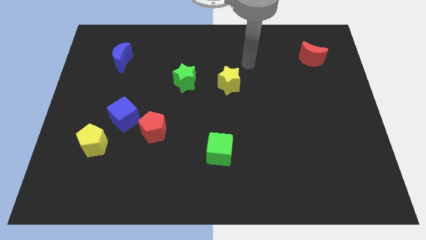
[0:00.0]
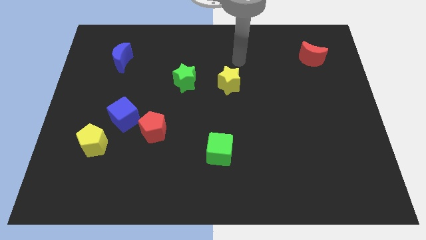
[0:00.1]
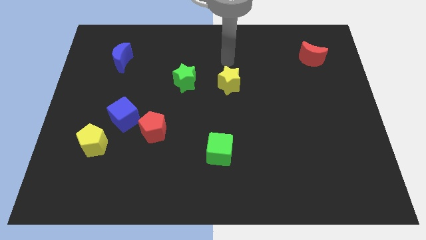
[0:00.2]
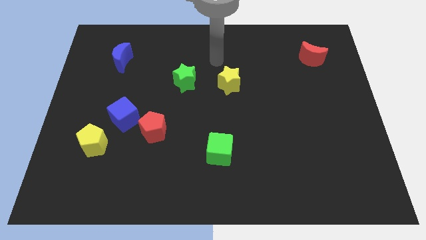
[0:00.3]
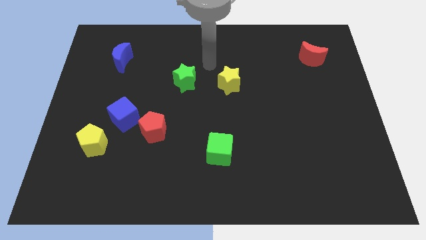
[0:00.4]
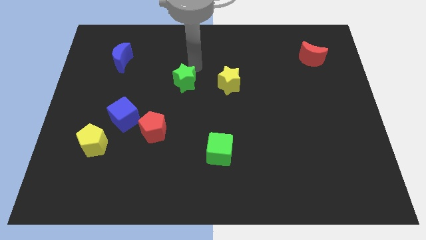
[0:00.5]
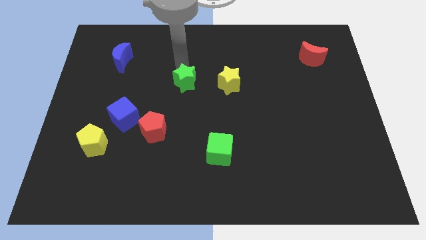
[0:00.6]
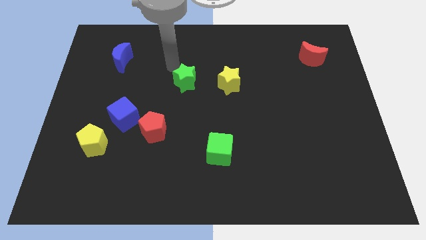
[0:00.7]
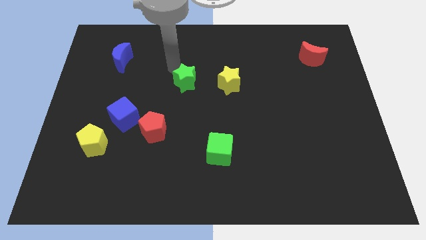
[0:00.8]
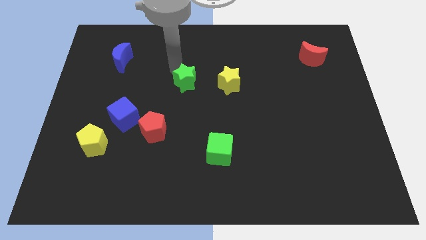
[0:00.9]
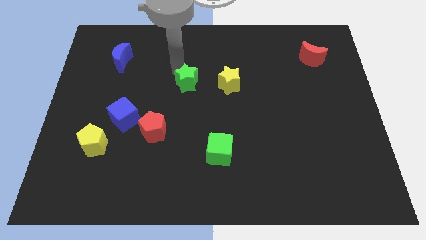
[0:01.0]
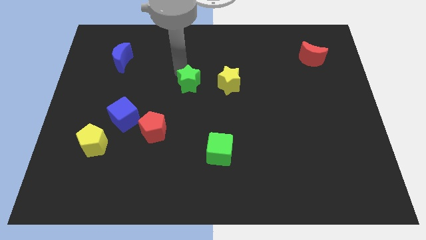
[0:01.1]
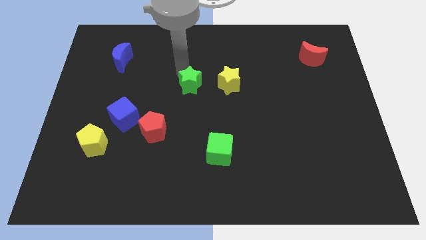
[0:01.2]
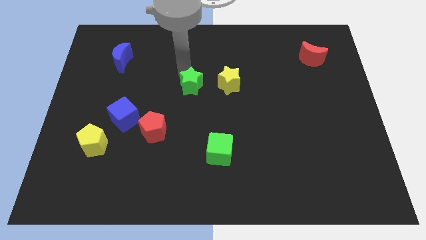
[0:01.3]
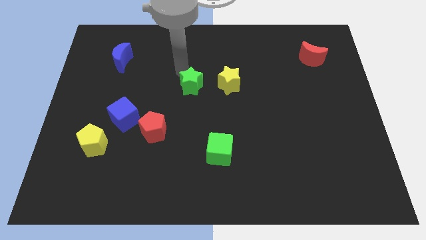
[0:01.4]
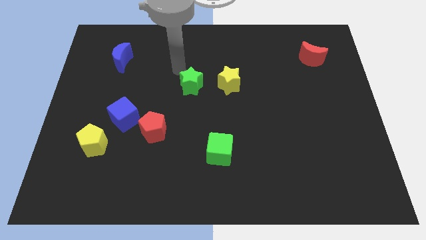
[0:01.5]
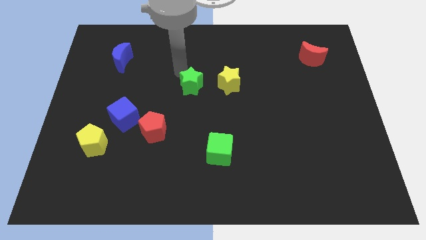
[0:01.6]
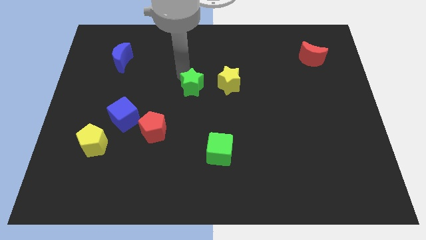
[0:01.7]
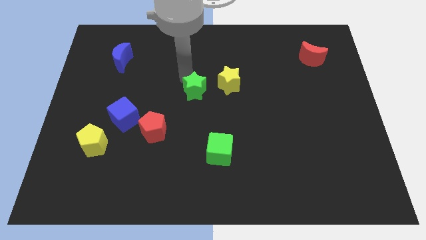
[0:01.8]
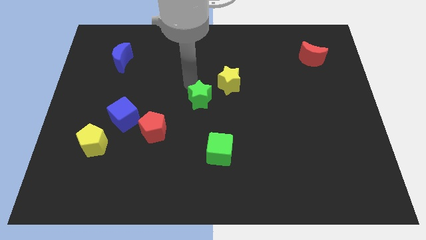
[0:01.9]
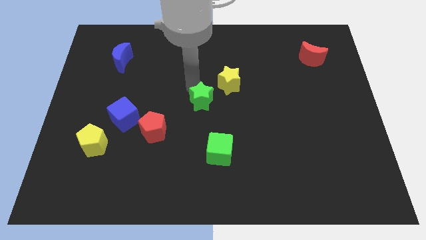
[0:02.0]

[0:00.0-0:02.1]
slightly push the green star downwards and then to the right

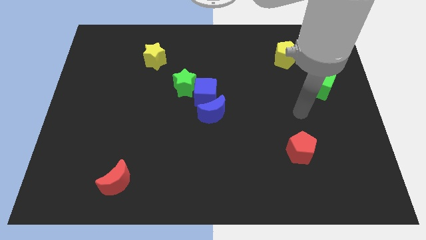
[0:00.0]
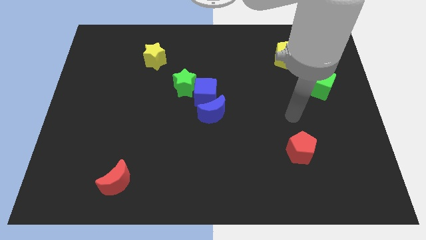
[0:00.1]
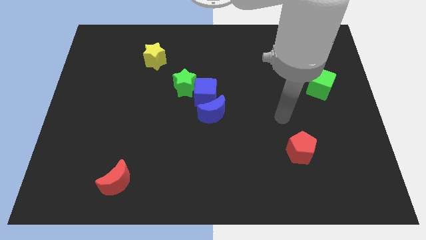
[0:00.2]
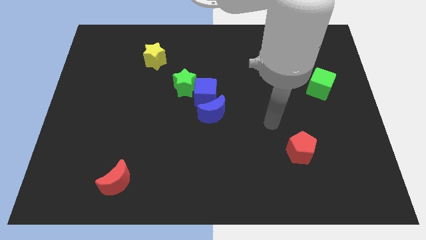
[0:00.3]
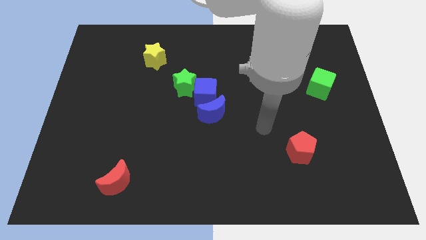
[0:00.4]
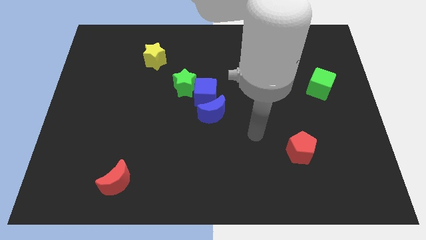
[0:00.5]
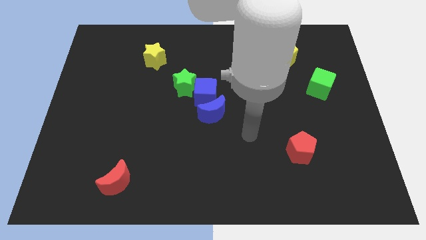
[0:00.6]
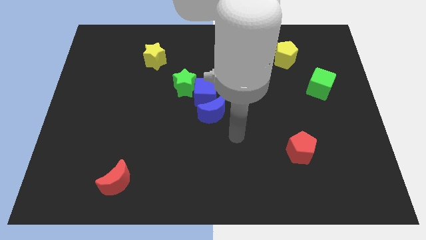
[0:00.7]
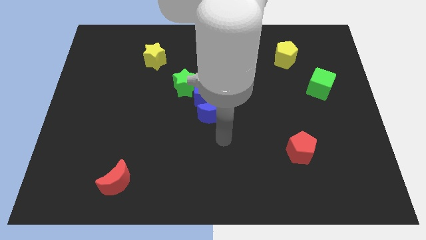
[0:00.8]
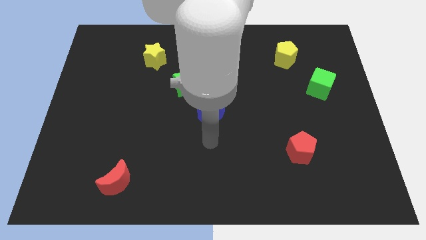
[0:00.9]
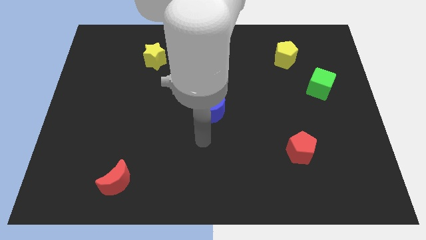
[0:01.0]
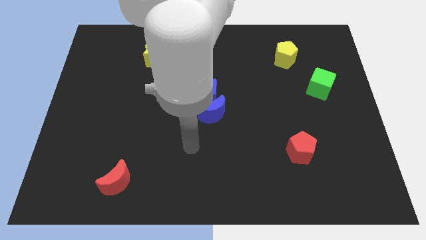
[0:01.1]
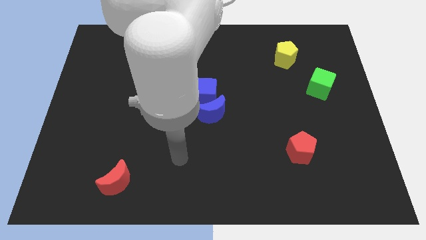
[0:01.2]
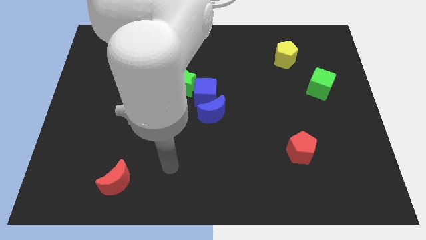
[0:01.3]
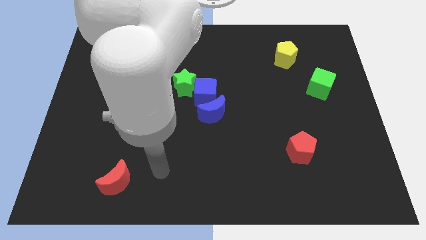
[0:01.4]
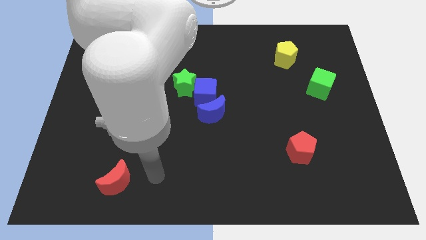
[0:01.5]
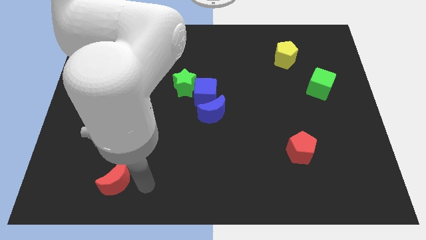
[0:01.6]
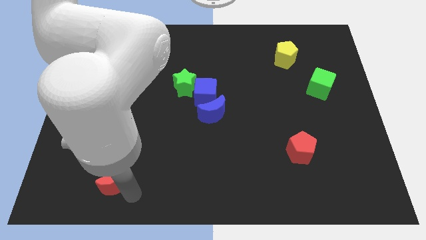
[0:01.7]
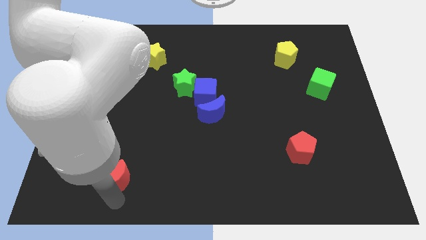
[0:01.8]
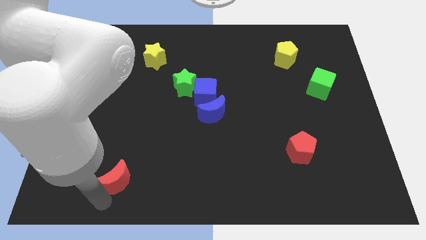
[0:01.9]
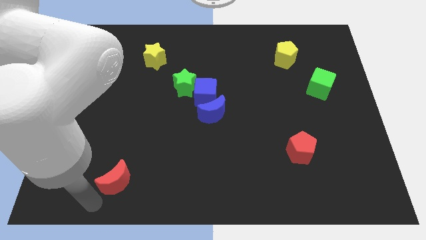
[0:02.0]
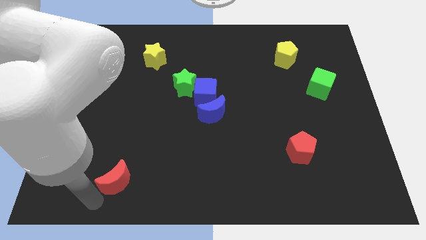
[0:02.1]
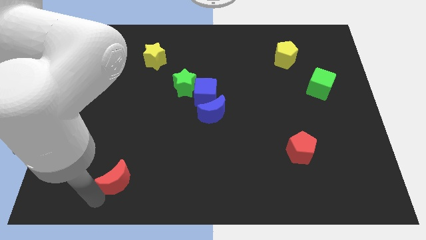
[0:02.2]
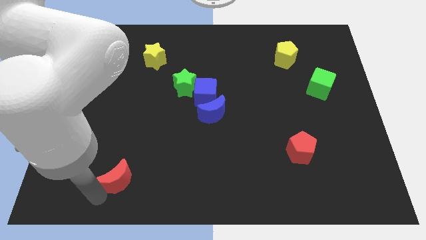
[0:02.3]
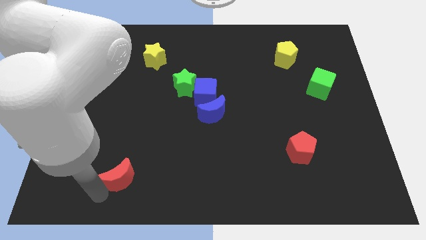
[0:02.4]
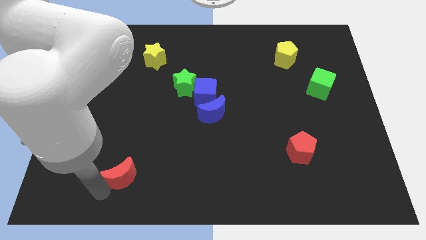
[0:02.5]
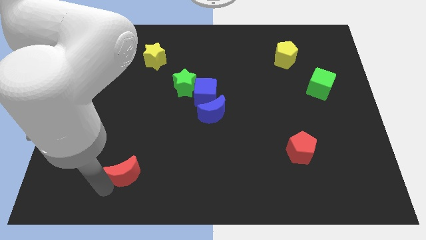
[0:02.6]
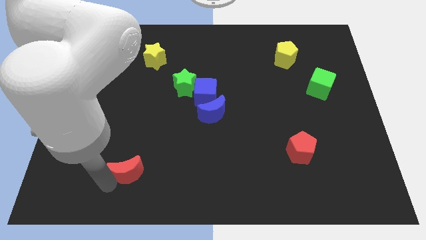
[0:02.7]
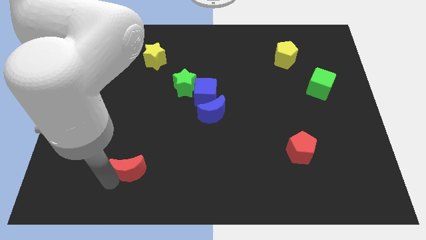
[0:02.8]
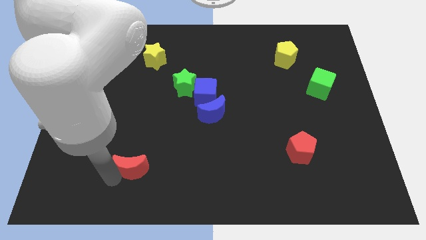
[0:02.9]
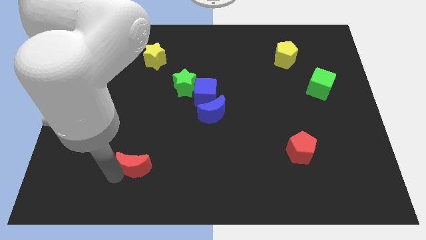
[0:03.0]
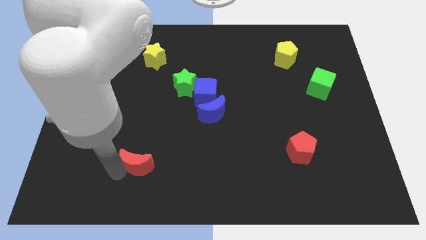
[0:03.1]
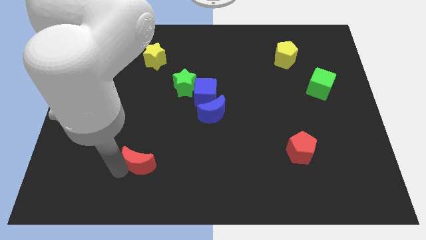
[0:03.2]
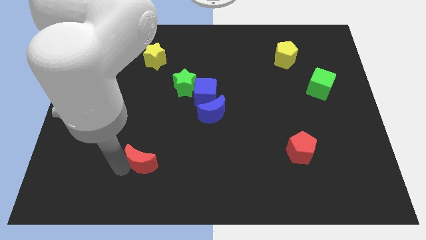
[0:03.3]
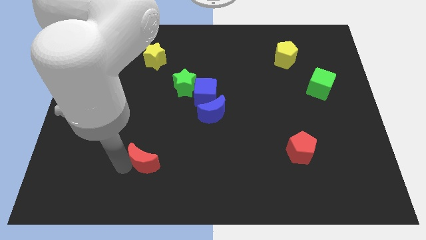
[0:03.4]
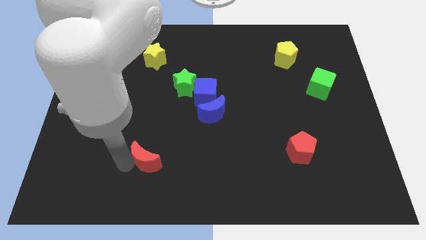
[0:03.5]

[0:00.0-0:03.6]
slightly slide the red moon upwards and right

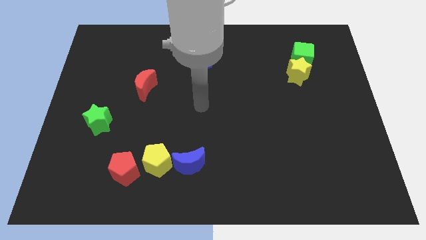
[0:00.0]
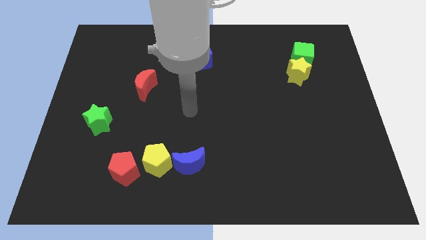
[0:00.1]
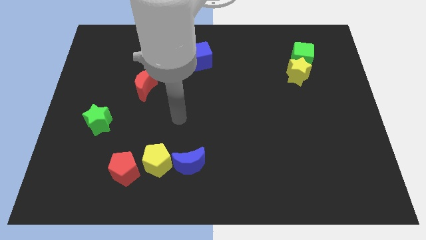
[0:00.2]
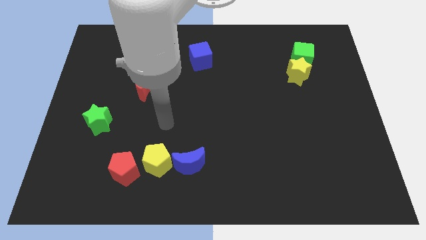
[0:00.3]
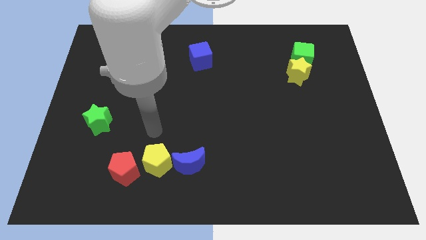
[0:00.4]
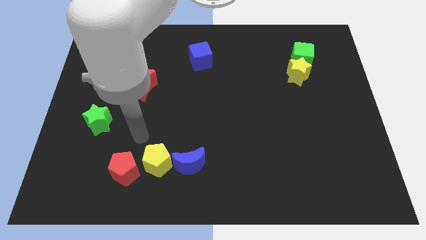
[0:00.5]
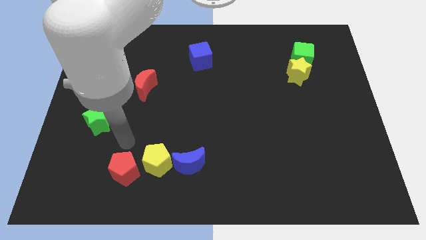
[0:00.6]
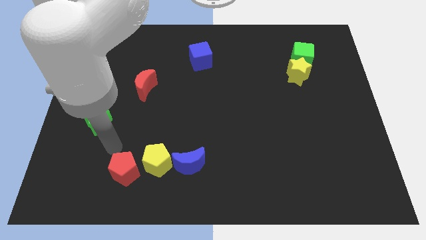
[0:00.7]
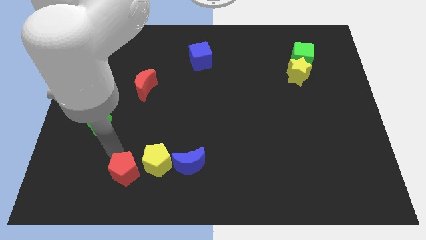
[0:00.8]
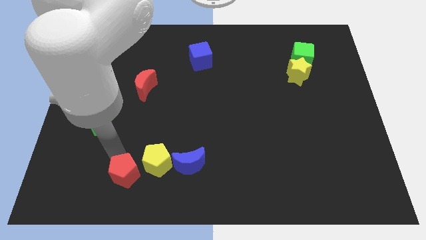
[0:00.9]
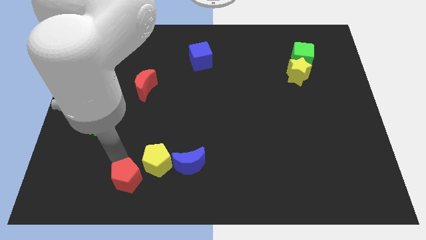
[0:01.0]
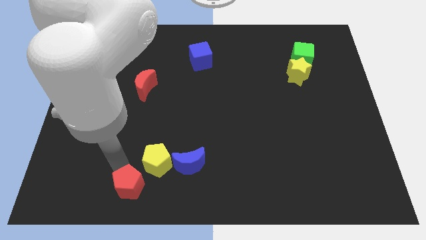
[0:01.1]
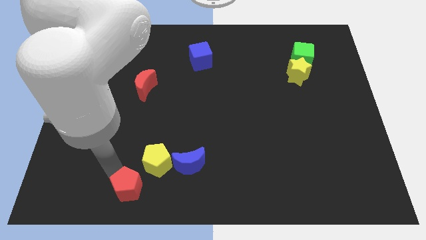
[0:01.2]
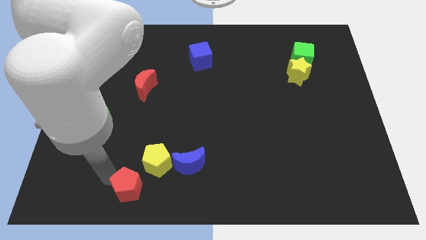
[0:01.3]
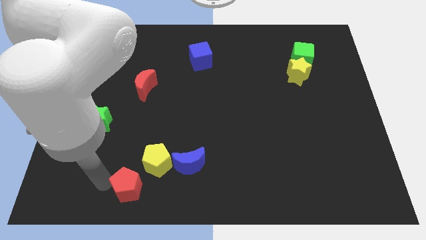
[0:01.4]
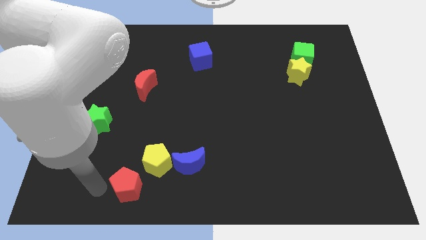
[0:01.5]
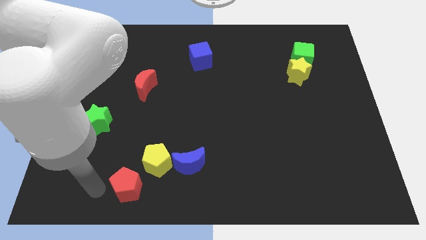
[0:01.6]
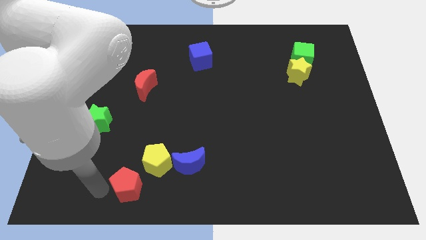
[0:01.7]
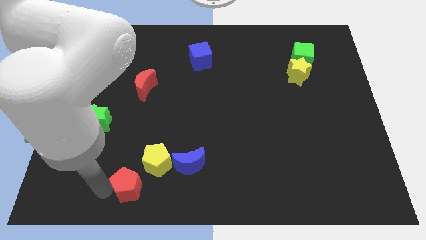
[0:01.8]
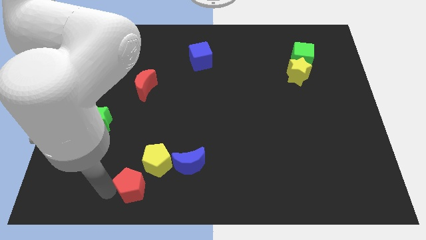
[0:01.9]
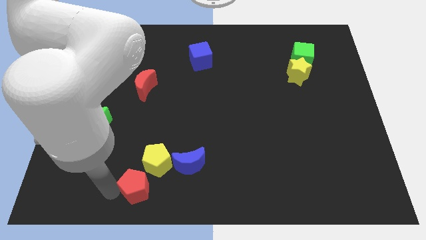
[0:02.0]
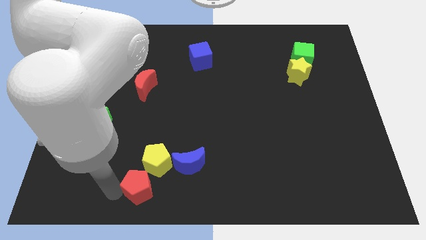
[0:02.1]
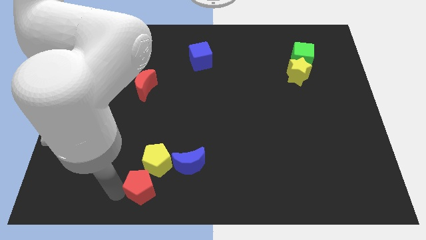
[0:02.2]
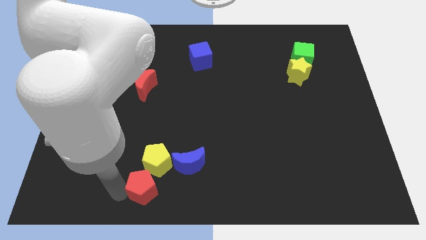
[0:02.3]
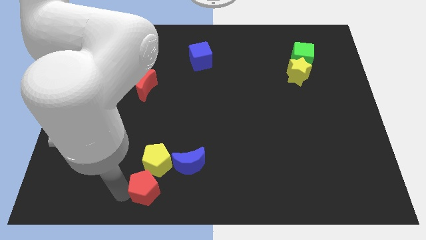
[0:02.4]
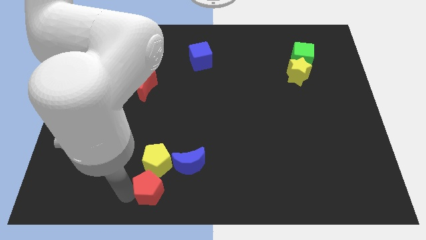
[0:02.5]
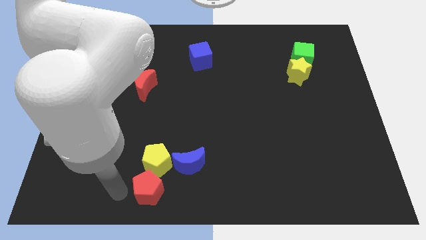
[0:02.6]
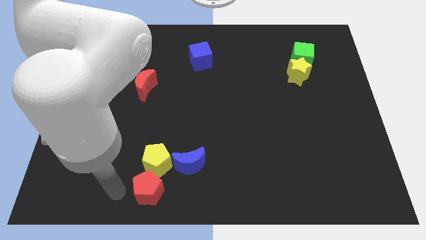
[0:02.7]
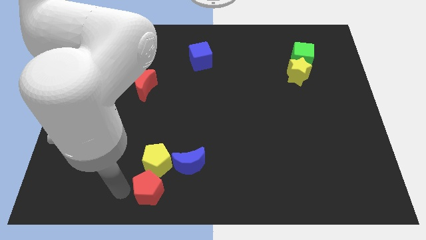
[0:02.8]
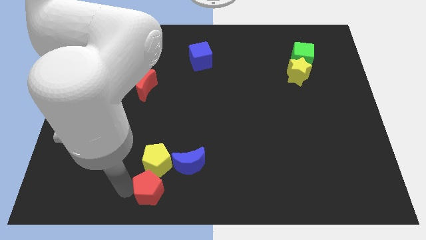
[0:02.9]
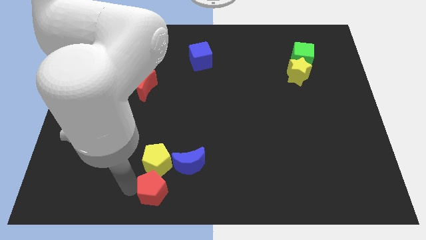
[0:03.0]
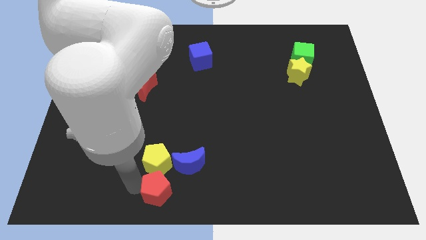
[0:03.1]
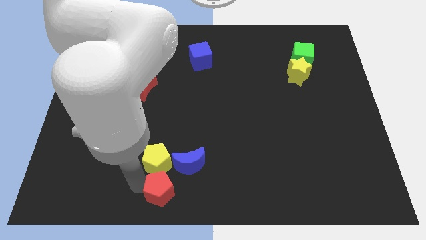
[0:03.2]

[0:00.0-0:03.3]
push the red pentagon somewhat to the right
